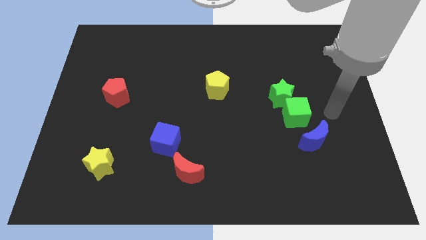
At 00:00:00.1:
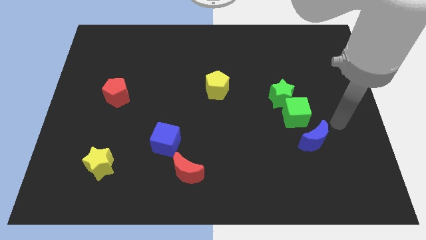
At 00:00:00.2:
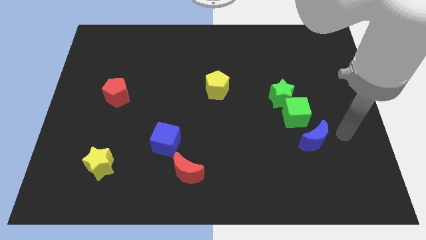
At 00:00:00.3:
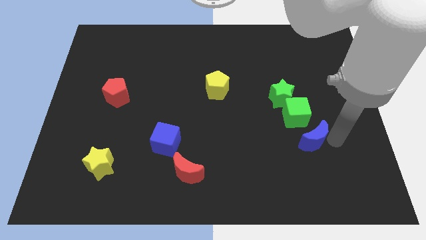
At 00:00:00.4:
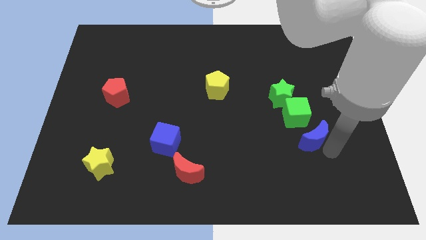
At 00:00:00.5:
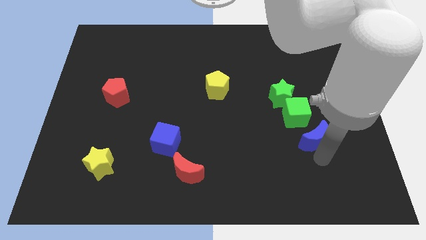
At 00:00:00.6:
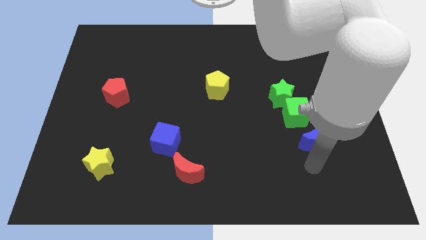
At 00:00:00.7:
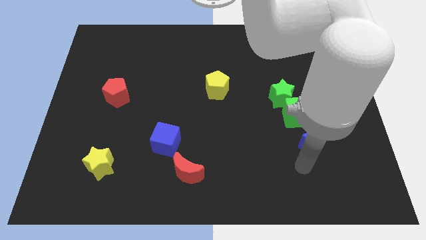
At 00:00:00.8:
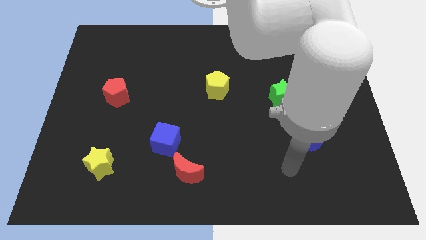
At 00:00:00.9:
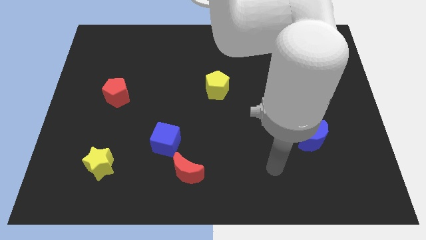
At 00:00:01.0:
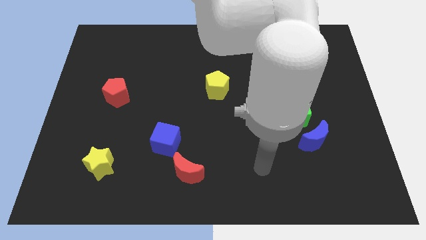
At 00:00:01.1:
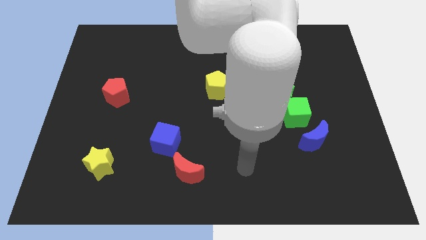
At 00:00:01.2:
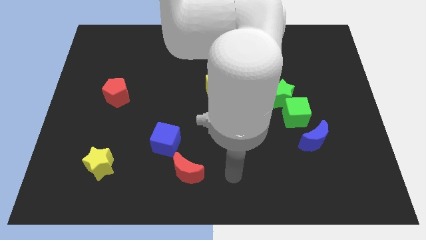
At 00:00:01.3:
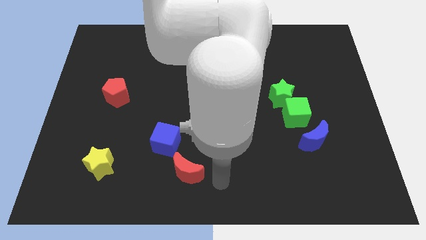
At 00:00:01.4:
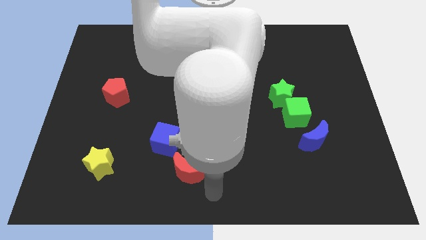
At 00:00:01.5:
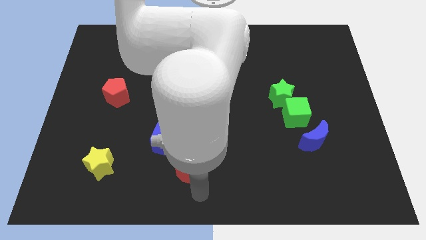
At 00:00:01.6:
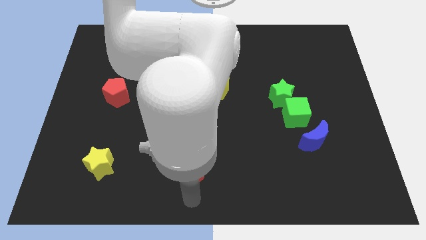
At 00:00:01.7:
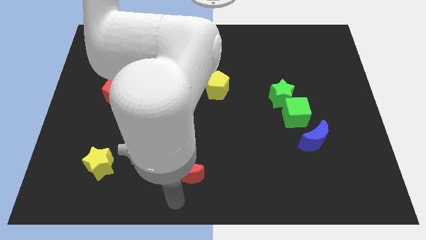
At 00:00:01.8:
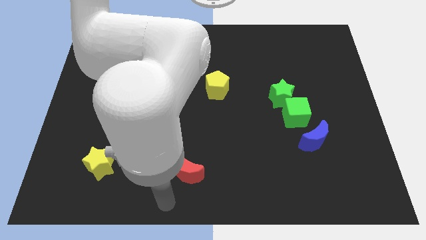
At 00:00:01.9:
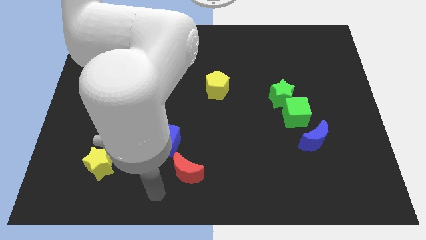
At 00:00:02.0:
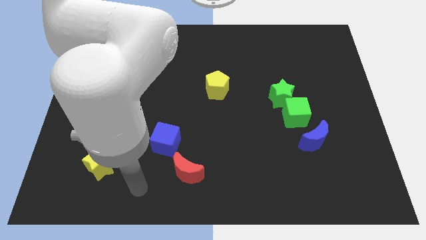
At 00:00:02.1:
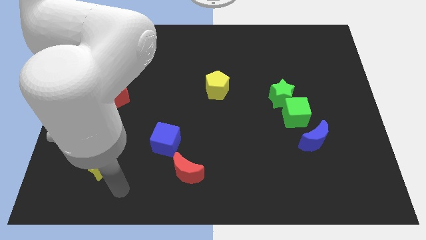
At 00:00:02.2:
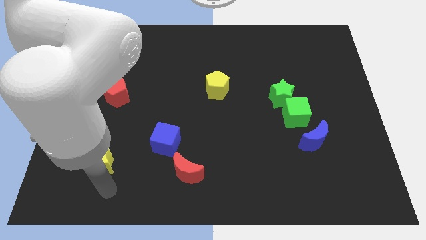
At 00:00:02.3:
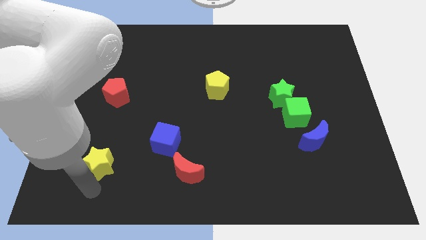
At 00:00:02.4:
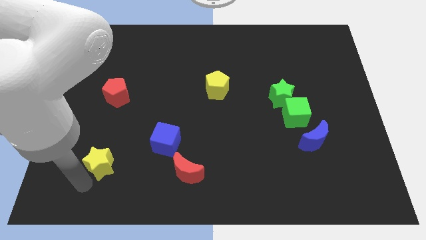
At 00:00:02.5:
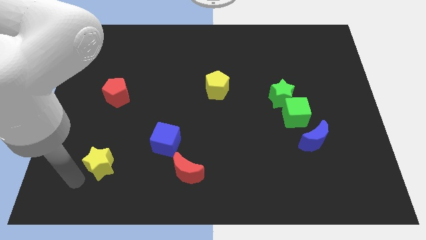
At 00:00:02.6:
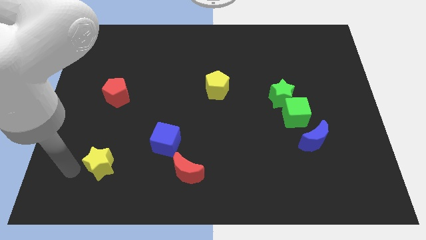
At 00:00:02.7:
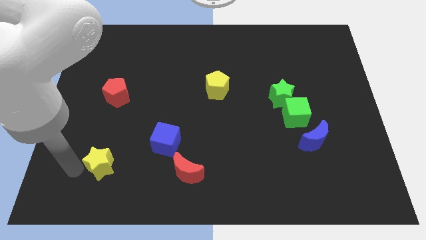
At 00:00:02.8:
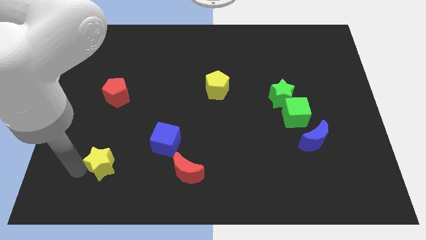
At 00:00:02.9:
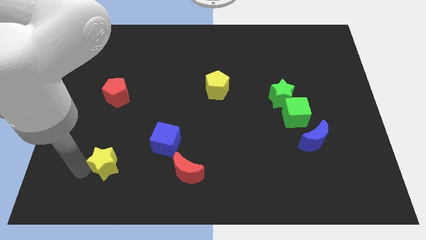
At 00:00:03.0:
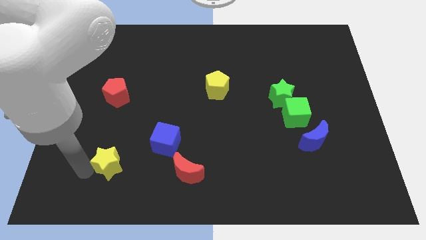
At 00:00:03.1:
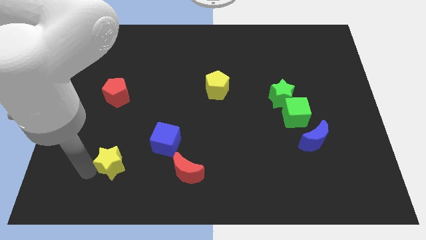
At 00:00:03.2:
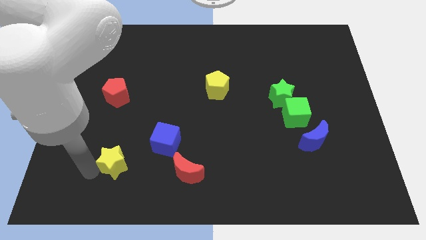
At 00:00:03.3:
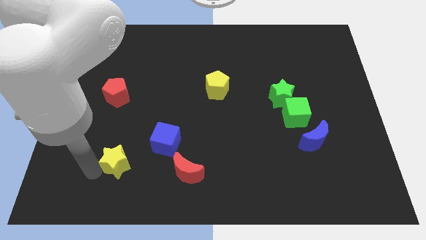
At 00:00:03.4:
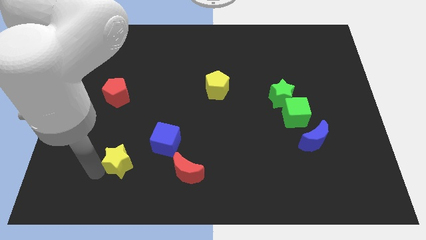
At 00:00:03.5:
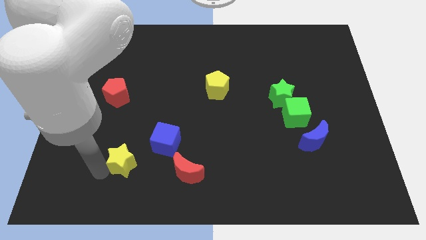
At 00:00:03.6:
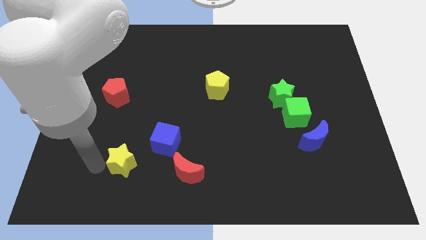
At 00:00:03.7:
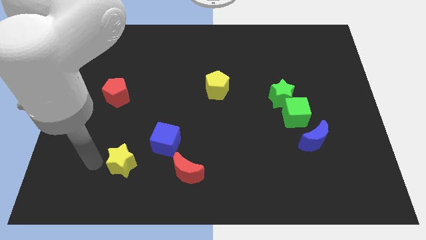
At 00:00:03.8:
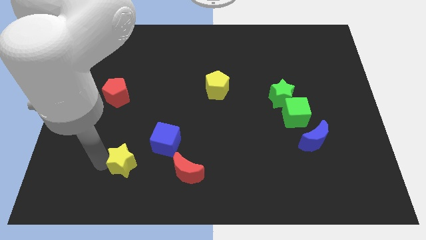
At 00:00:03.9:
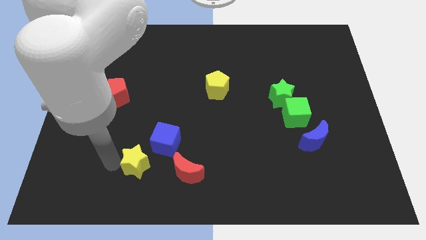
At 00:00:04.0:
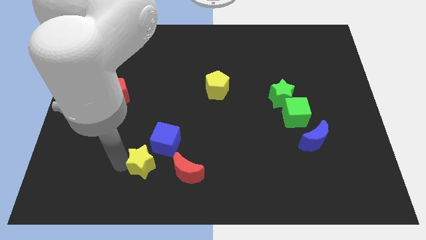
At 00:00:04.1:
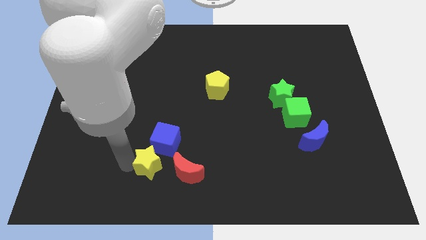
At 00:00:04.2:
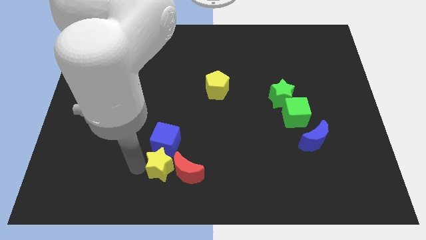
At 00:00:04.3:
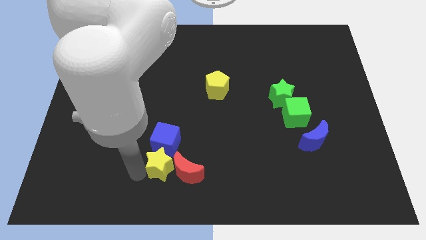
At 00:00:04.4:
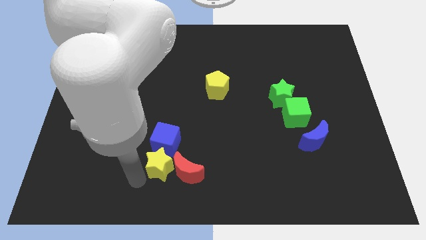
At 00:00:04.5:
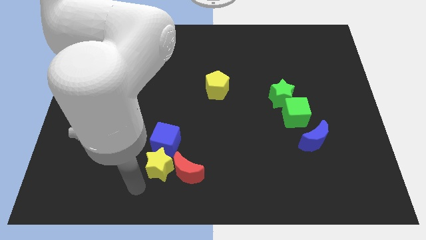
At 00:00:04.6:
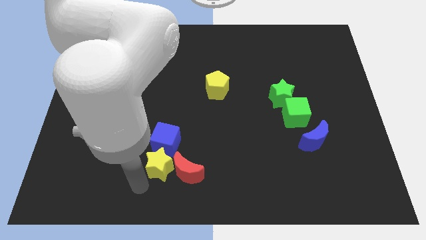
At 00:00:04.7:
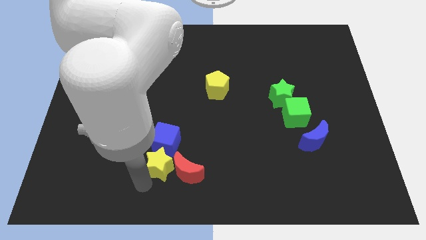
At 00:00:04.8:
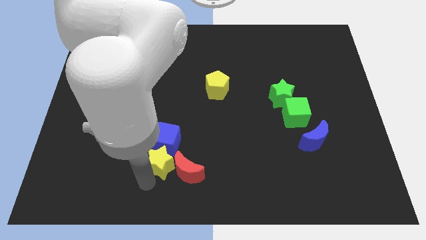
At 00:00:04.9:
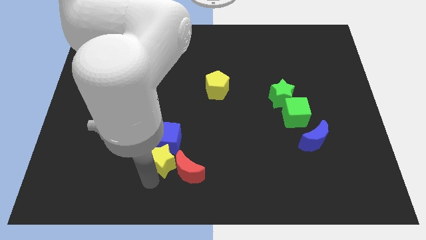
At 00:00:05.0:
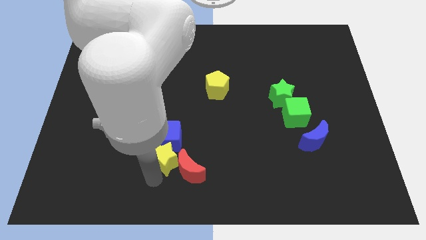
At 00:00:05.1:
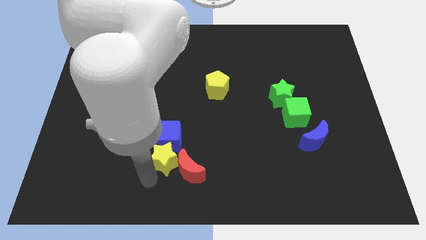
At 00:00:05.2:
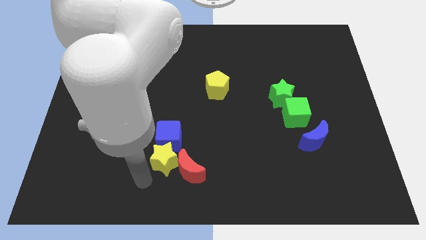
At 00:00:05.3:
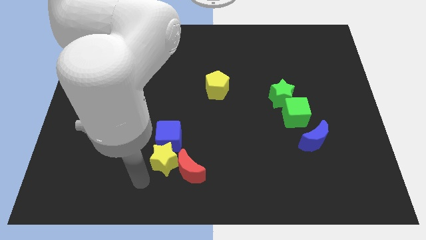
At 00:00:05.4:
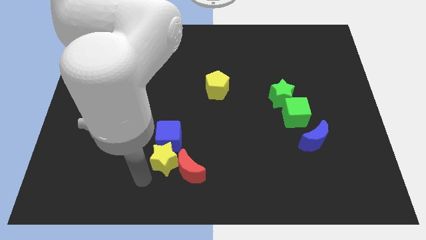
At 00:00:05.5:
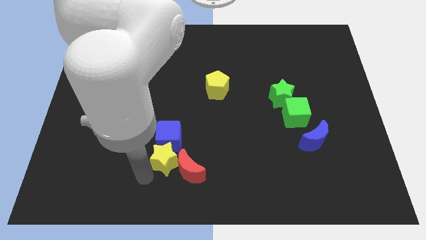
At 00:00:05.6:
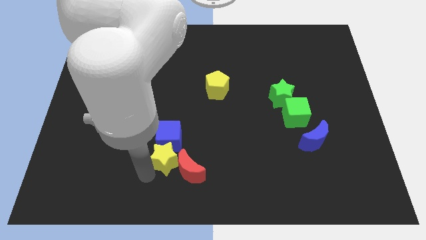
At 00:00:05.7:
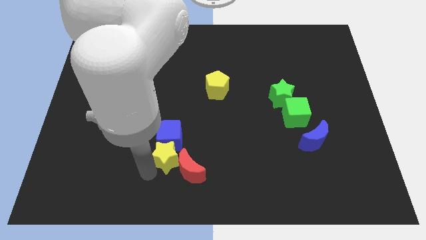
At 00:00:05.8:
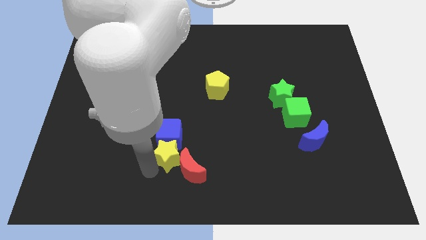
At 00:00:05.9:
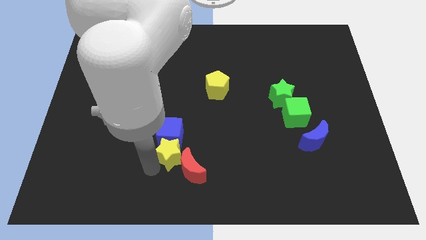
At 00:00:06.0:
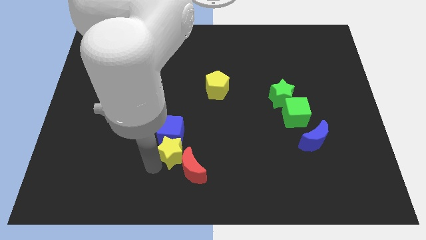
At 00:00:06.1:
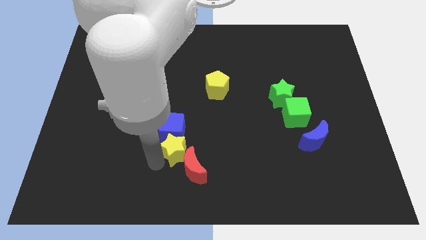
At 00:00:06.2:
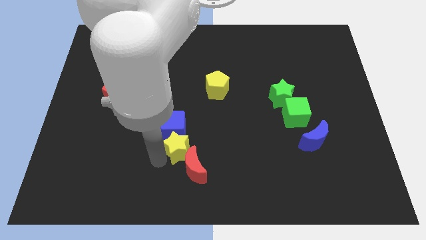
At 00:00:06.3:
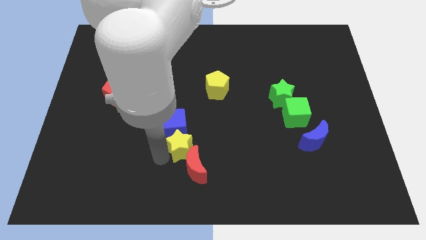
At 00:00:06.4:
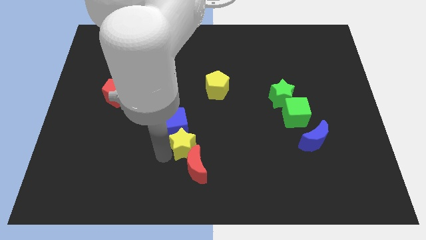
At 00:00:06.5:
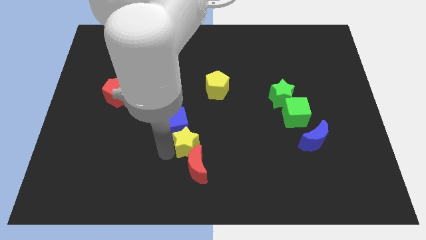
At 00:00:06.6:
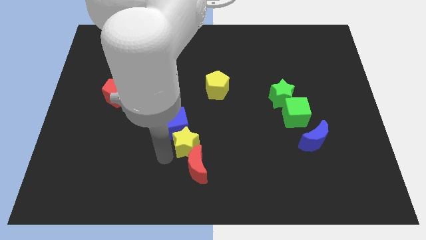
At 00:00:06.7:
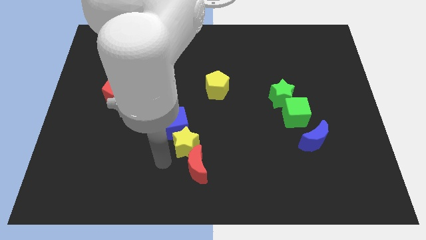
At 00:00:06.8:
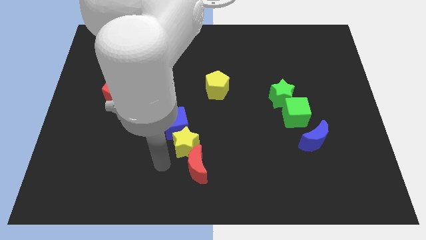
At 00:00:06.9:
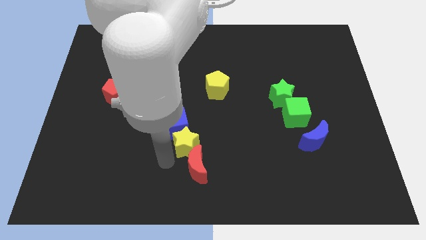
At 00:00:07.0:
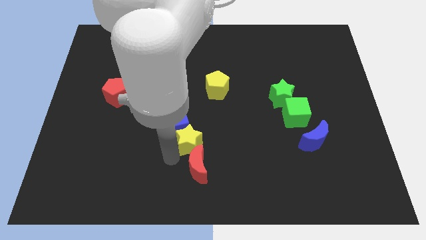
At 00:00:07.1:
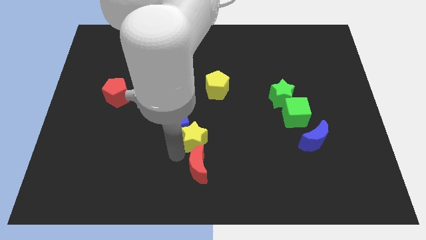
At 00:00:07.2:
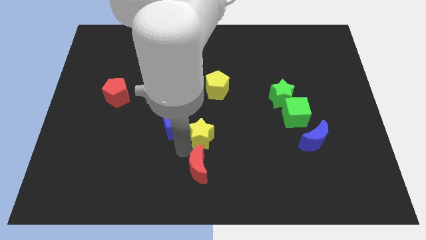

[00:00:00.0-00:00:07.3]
move the yellow star to the bottom of the yellow pentagon
